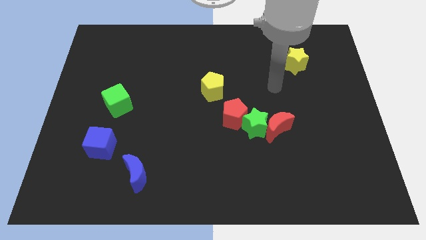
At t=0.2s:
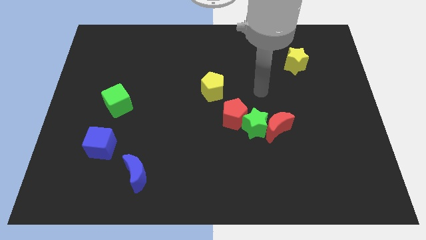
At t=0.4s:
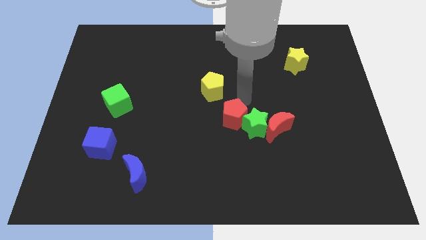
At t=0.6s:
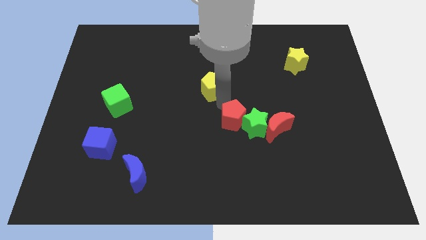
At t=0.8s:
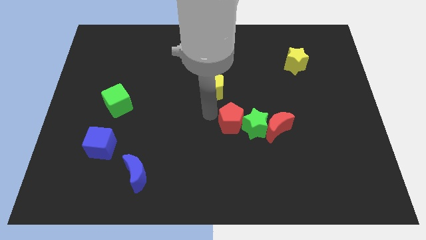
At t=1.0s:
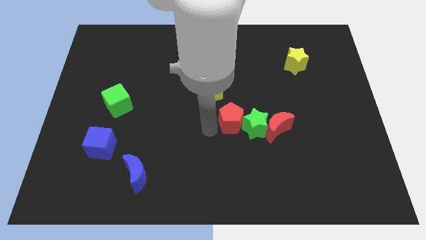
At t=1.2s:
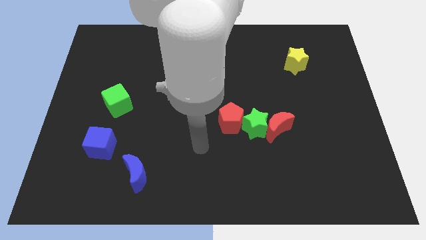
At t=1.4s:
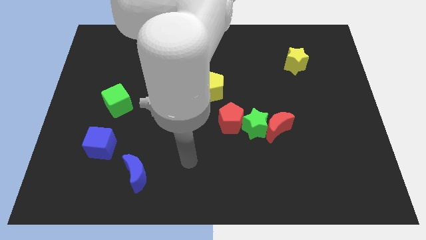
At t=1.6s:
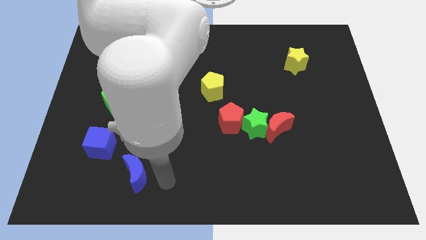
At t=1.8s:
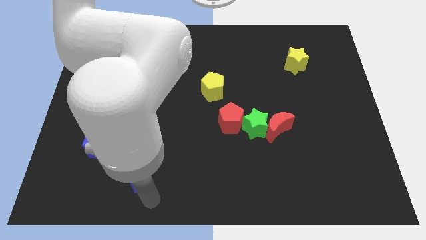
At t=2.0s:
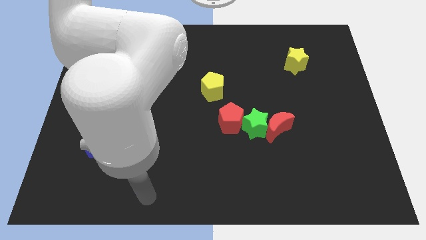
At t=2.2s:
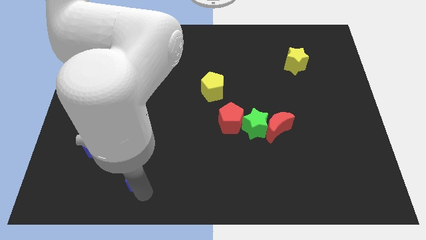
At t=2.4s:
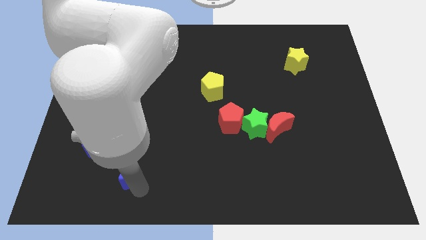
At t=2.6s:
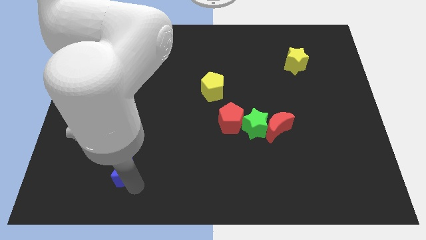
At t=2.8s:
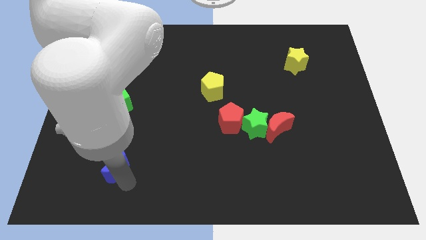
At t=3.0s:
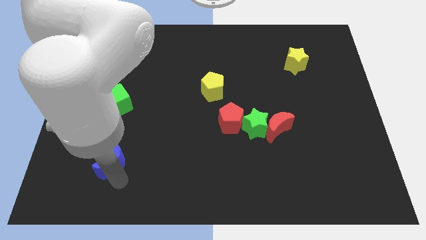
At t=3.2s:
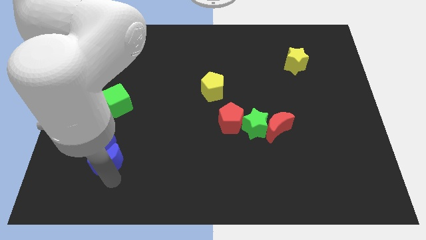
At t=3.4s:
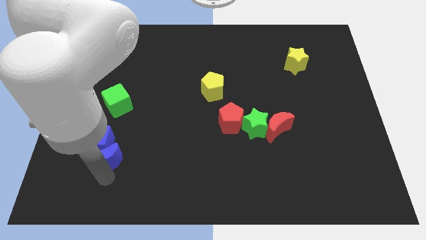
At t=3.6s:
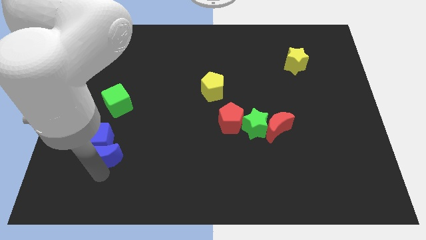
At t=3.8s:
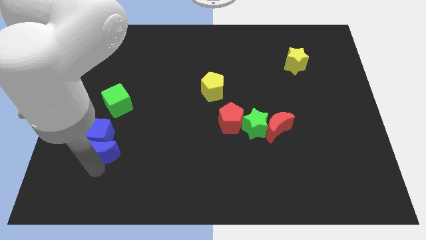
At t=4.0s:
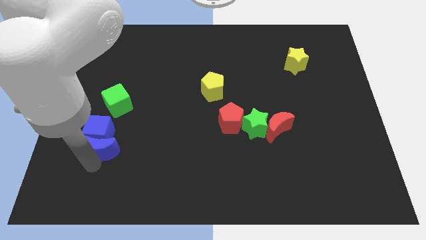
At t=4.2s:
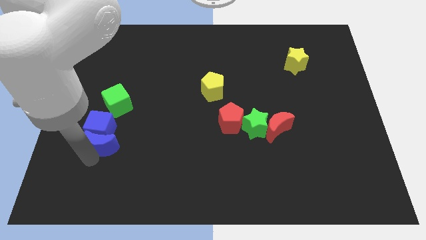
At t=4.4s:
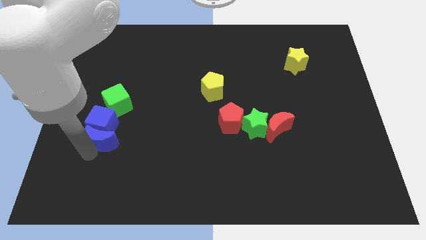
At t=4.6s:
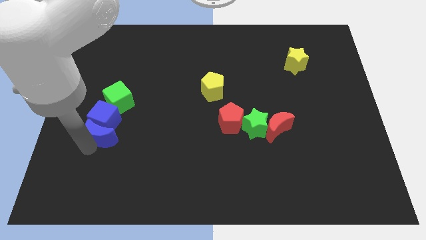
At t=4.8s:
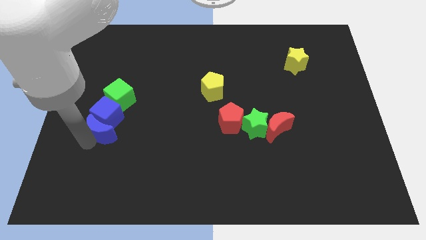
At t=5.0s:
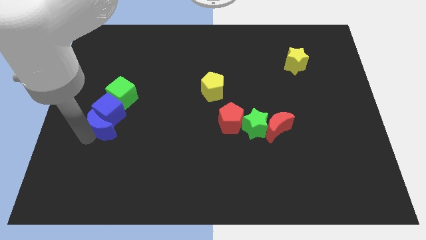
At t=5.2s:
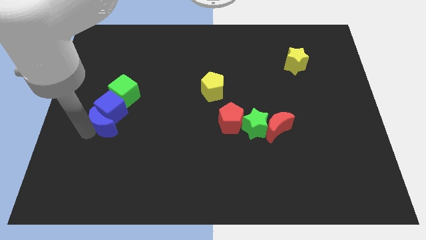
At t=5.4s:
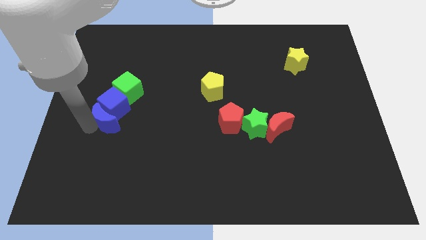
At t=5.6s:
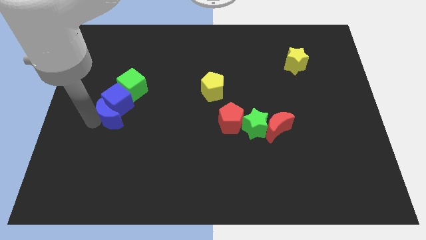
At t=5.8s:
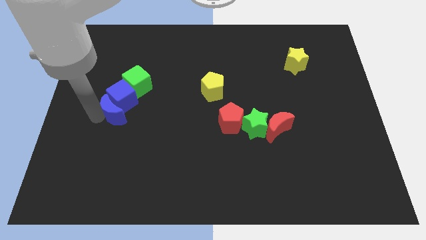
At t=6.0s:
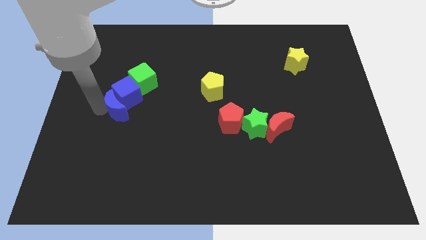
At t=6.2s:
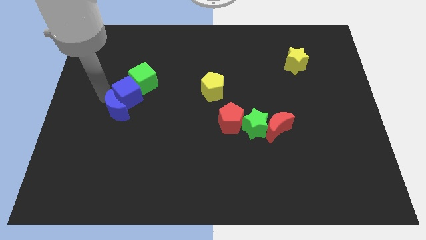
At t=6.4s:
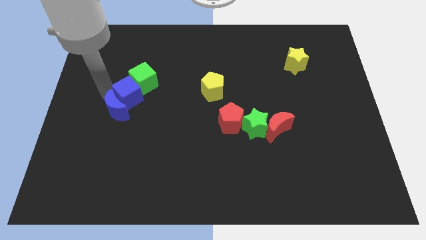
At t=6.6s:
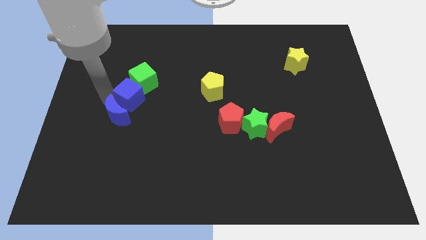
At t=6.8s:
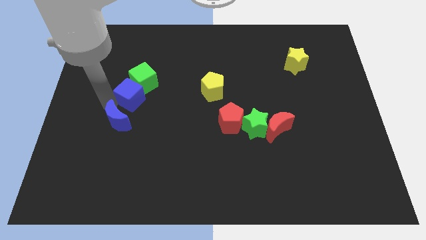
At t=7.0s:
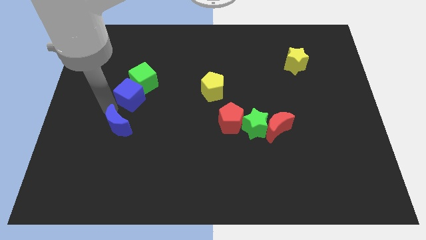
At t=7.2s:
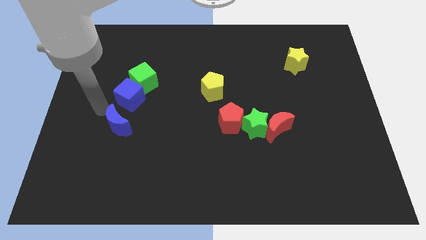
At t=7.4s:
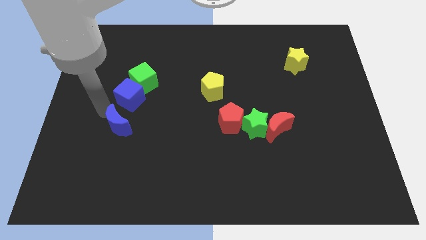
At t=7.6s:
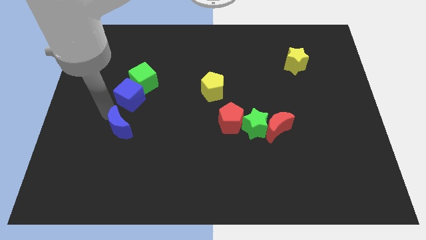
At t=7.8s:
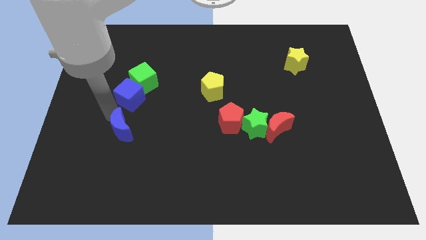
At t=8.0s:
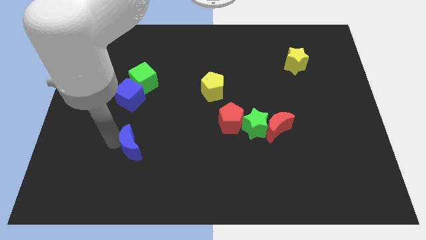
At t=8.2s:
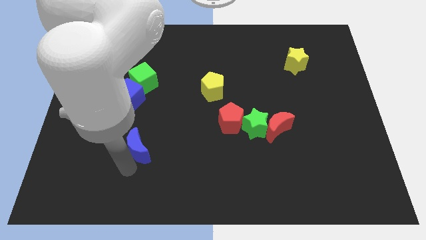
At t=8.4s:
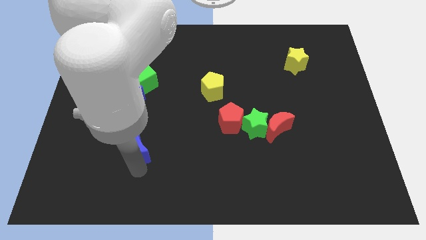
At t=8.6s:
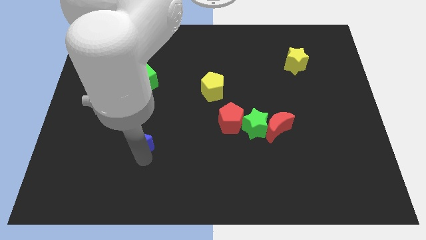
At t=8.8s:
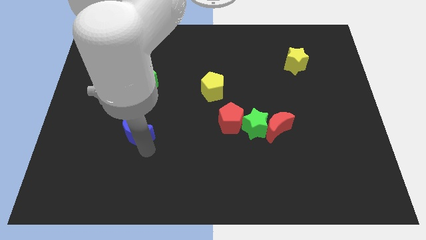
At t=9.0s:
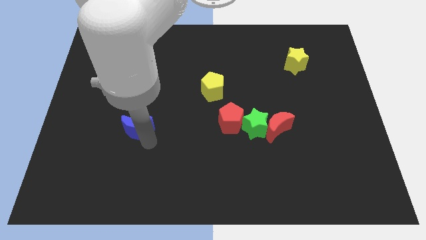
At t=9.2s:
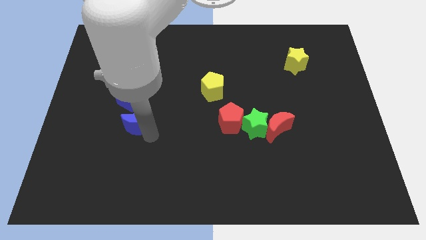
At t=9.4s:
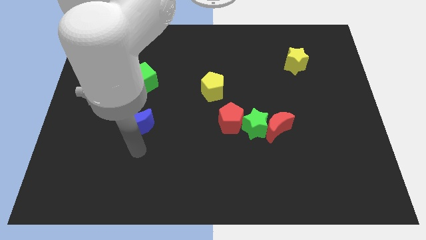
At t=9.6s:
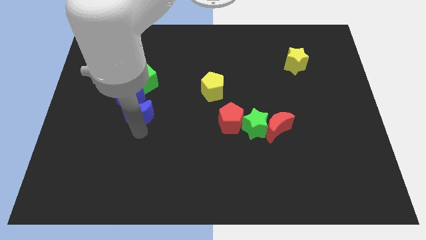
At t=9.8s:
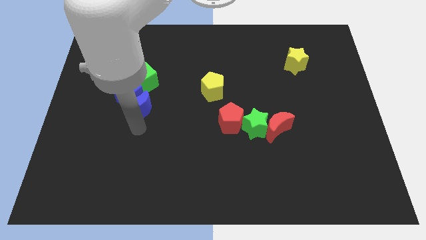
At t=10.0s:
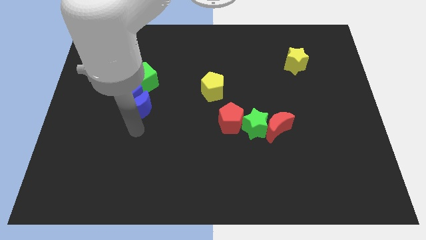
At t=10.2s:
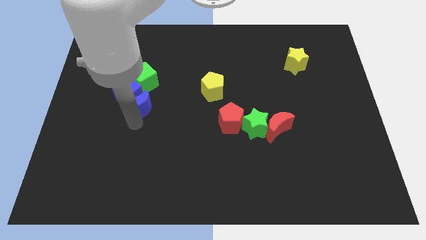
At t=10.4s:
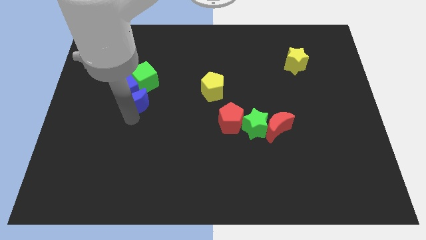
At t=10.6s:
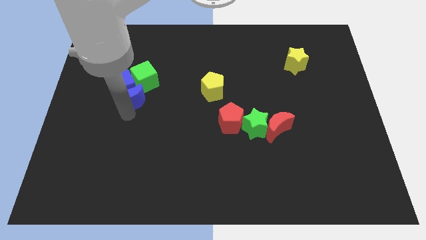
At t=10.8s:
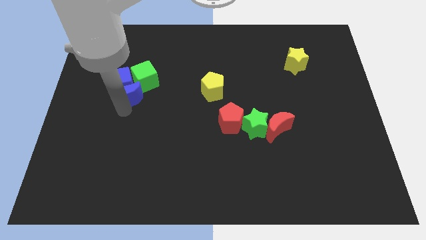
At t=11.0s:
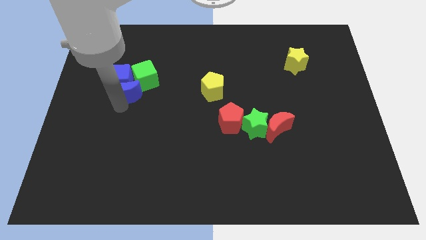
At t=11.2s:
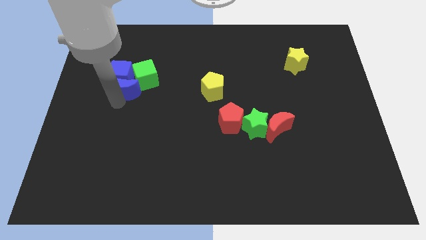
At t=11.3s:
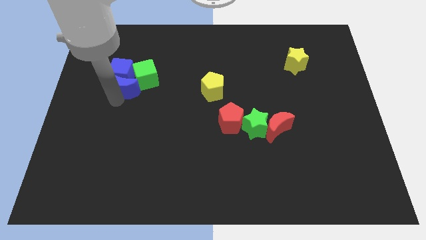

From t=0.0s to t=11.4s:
push the blue moon to the green cube

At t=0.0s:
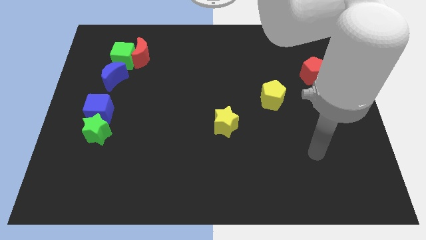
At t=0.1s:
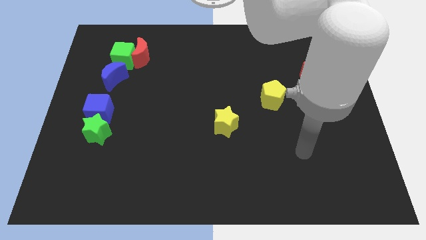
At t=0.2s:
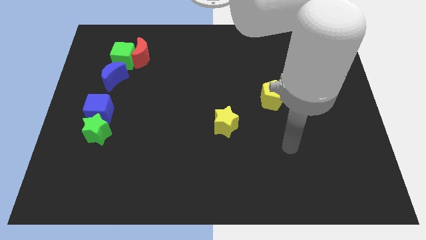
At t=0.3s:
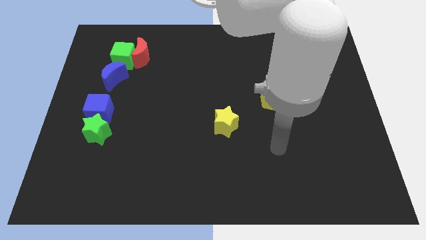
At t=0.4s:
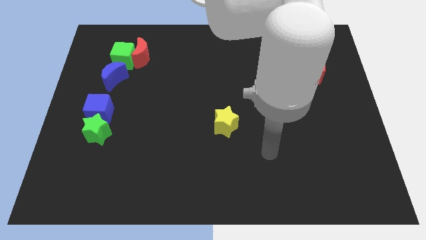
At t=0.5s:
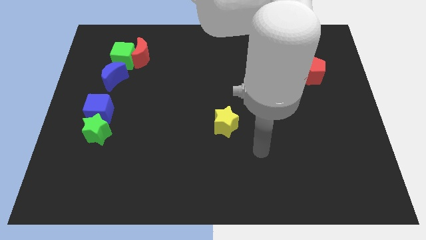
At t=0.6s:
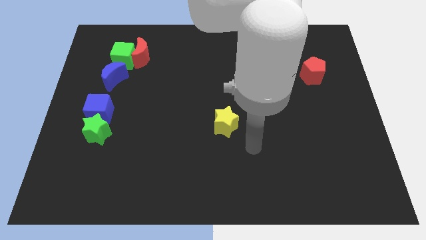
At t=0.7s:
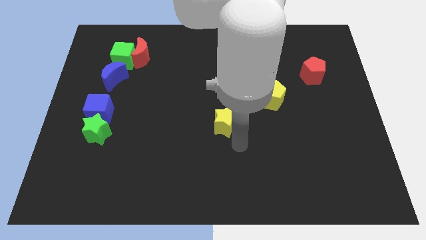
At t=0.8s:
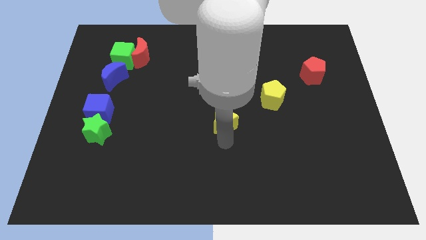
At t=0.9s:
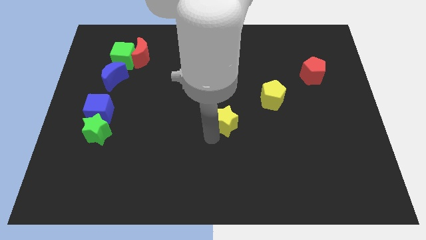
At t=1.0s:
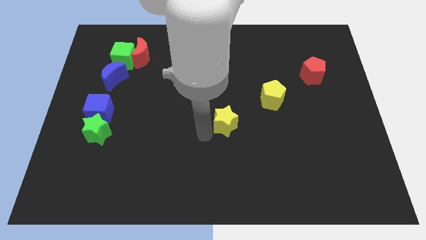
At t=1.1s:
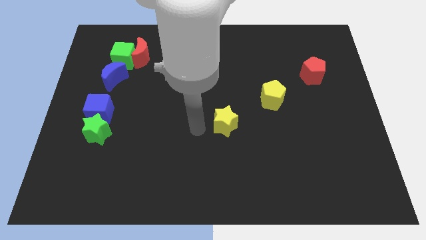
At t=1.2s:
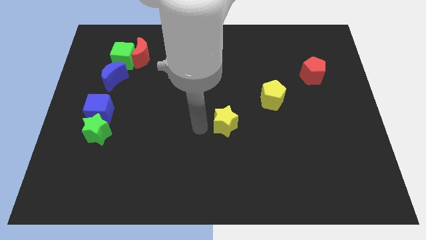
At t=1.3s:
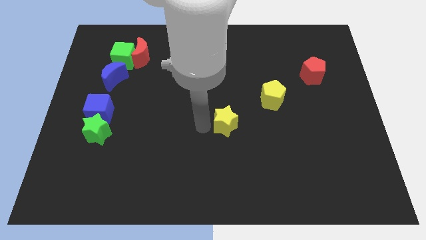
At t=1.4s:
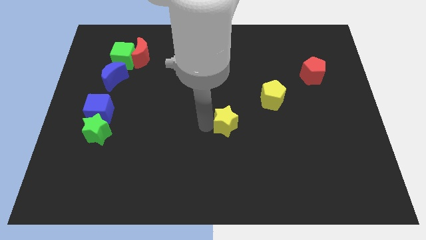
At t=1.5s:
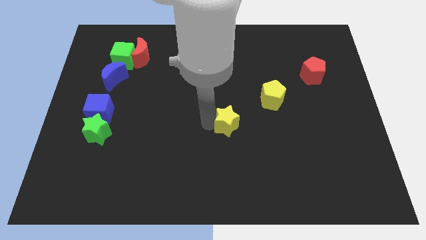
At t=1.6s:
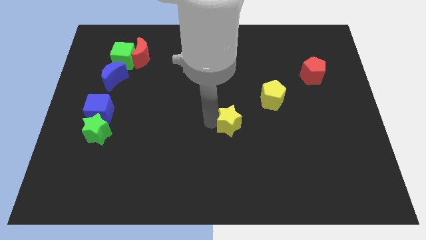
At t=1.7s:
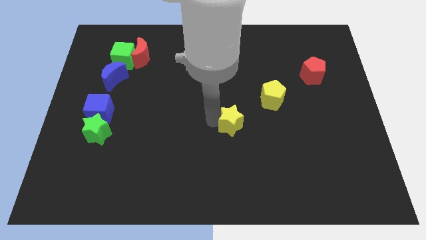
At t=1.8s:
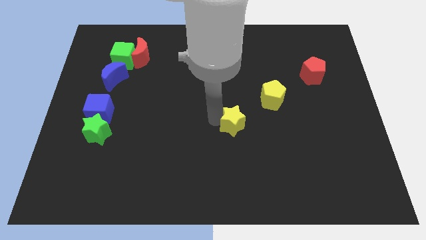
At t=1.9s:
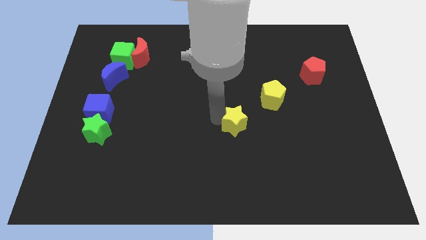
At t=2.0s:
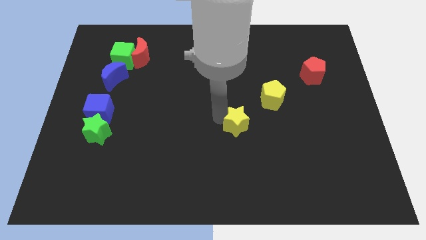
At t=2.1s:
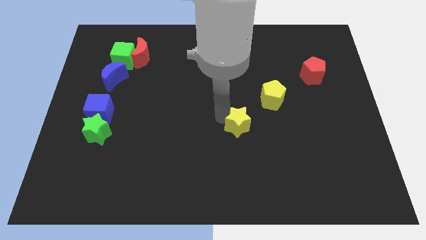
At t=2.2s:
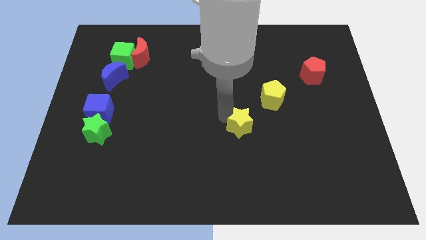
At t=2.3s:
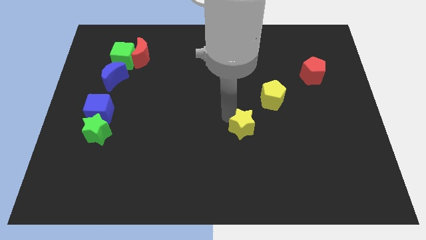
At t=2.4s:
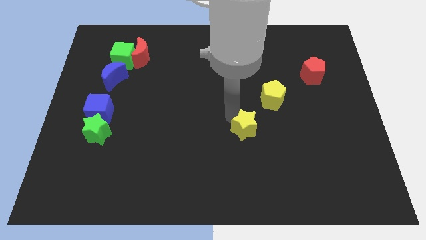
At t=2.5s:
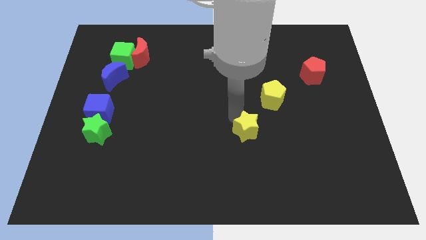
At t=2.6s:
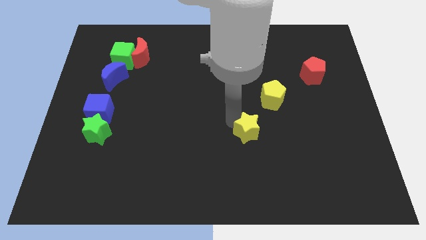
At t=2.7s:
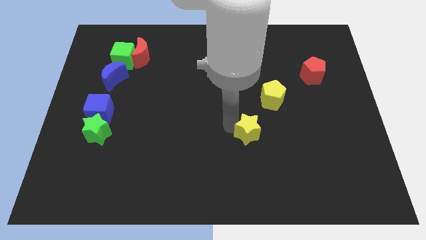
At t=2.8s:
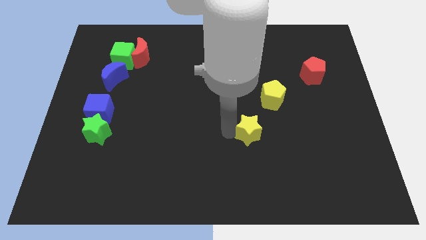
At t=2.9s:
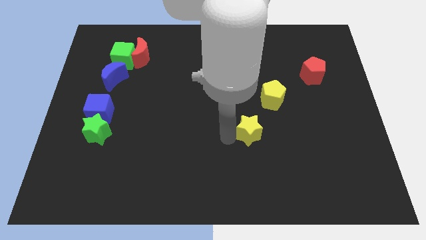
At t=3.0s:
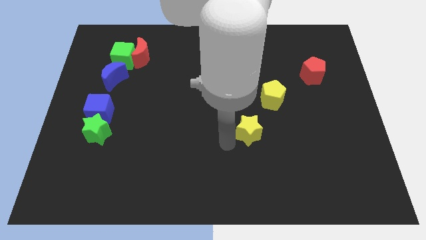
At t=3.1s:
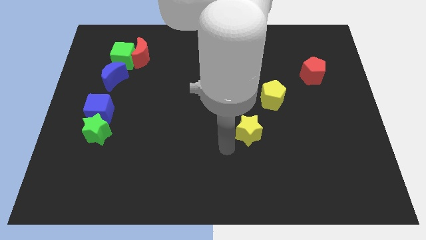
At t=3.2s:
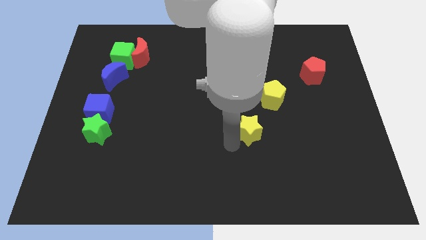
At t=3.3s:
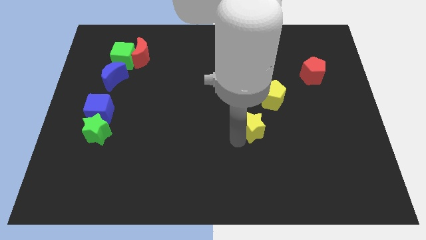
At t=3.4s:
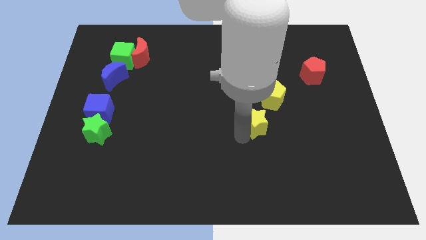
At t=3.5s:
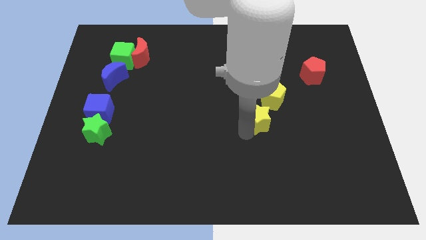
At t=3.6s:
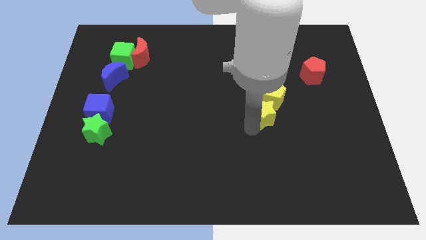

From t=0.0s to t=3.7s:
move the yellow star next to the yellow pentagon
